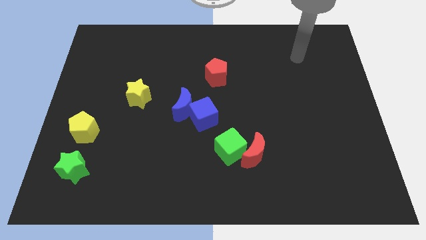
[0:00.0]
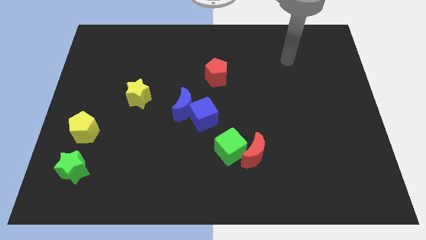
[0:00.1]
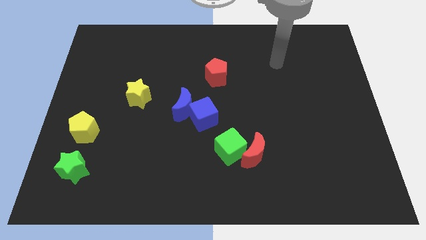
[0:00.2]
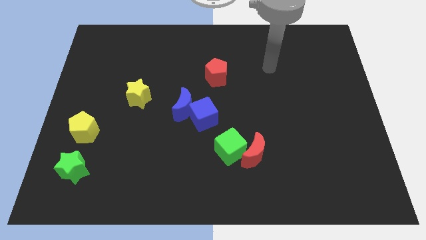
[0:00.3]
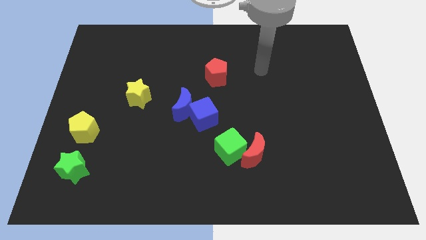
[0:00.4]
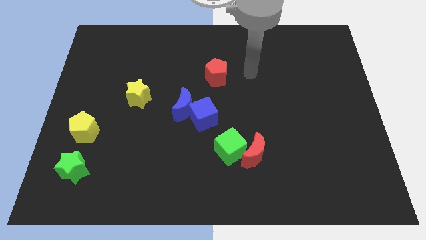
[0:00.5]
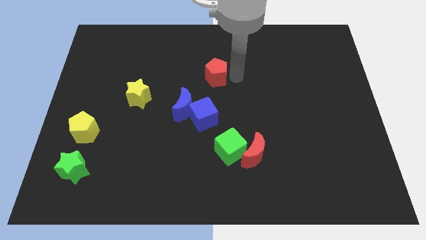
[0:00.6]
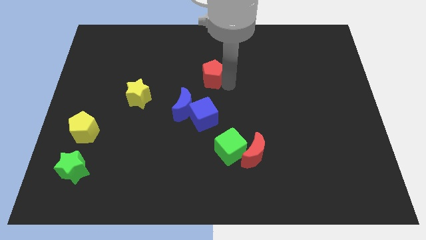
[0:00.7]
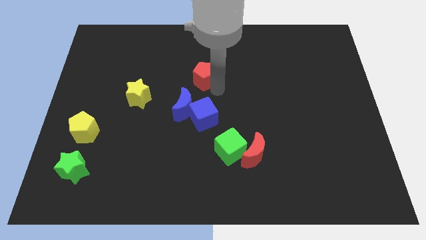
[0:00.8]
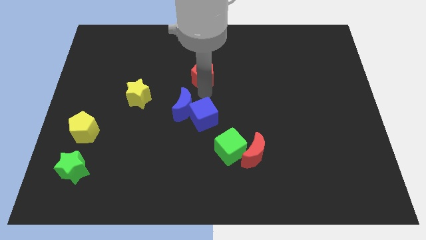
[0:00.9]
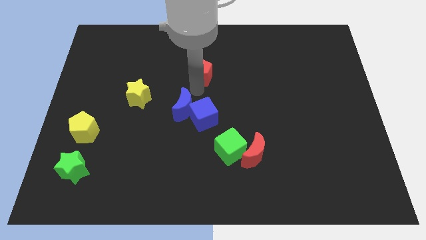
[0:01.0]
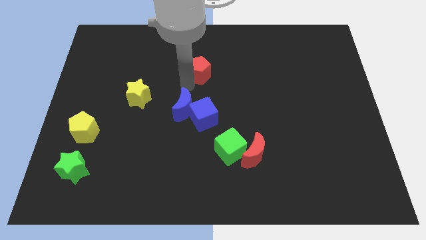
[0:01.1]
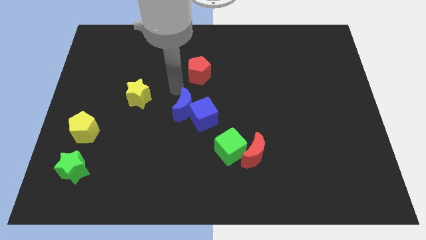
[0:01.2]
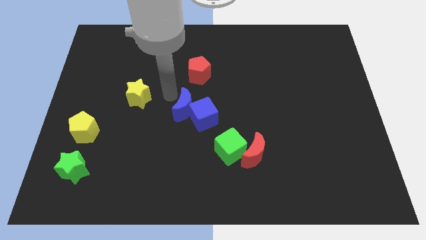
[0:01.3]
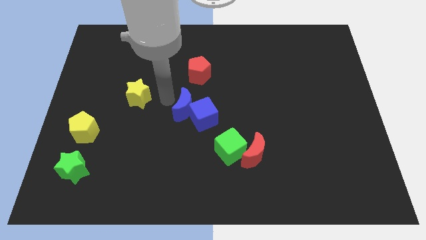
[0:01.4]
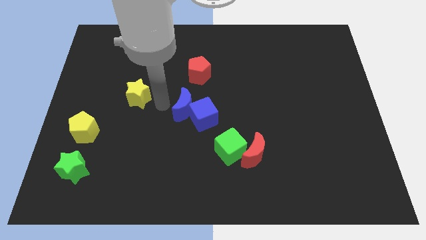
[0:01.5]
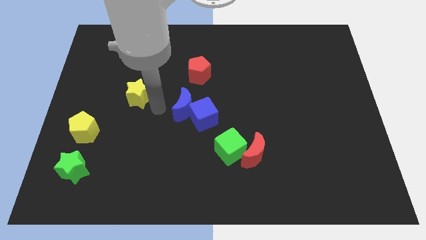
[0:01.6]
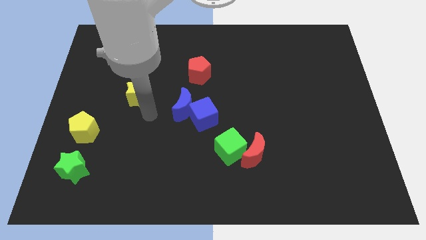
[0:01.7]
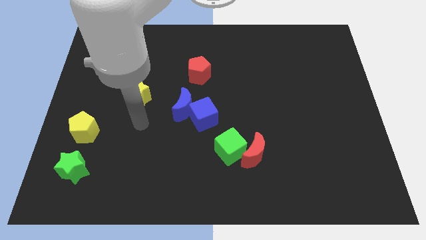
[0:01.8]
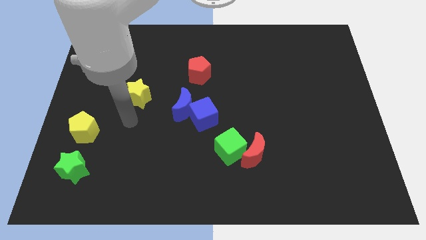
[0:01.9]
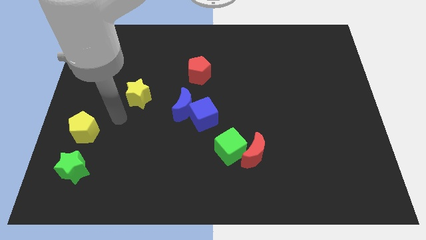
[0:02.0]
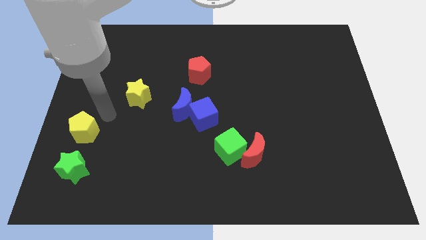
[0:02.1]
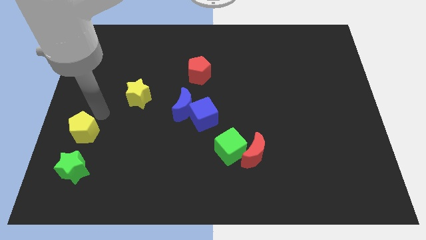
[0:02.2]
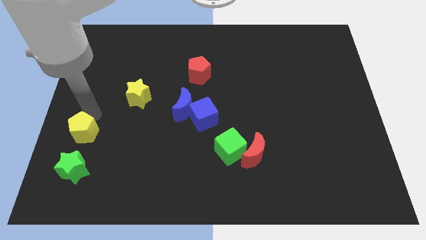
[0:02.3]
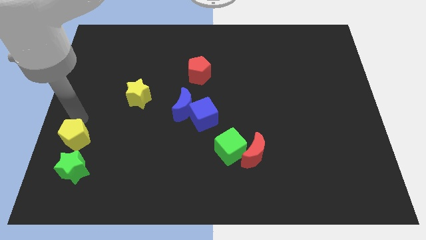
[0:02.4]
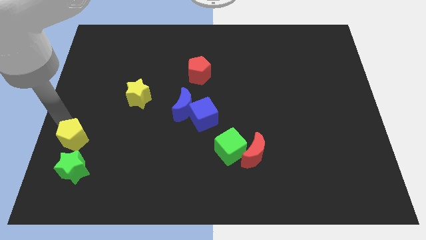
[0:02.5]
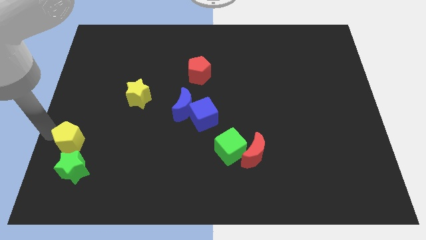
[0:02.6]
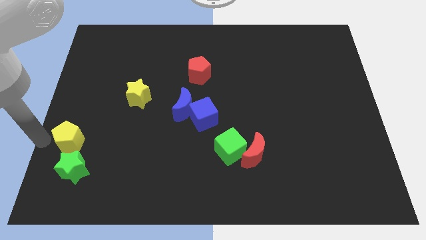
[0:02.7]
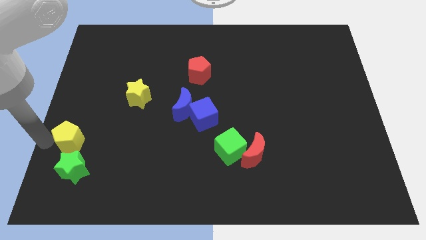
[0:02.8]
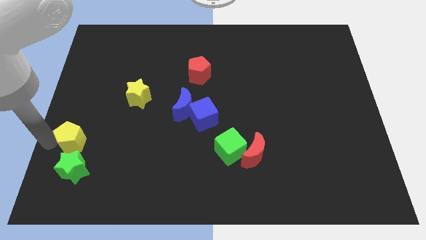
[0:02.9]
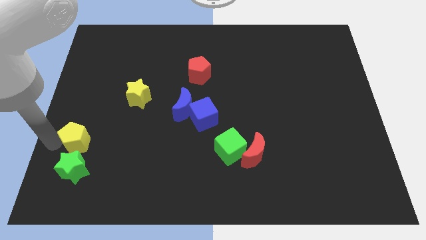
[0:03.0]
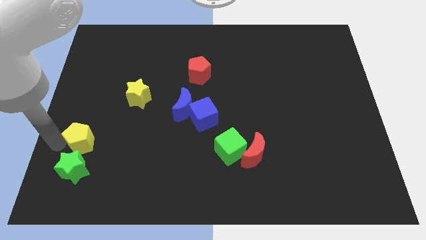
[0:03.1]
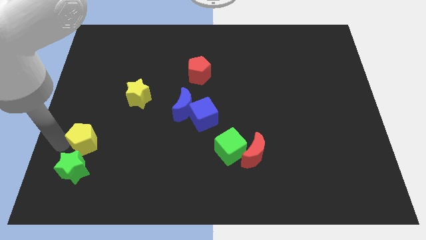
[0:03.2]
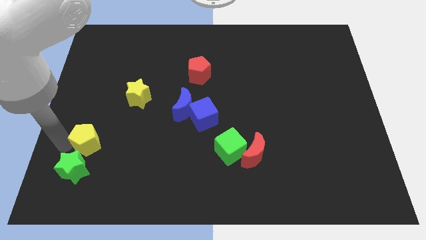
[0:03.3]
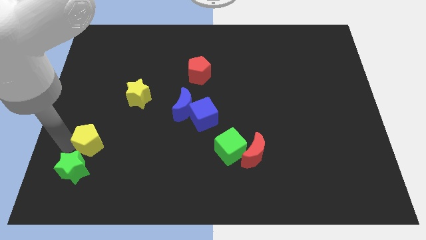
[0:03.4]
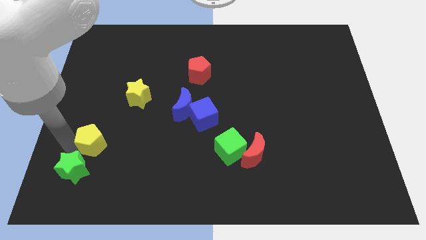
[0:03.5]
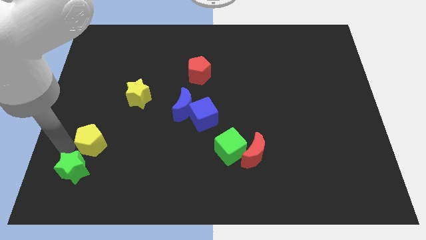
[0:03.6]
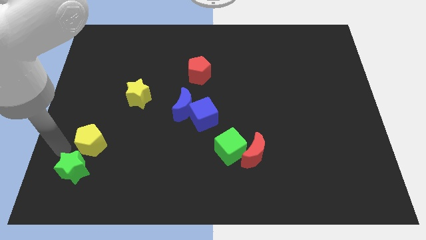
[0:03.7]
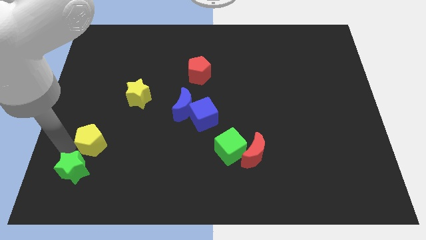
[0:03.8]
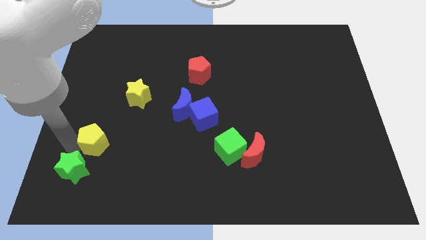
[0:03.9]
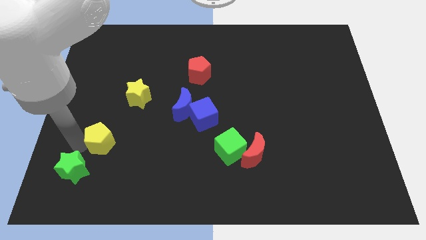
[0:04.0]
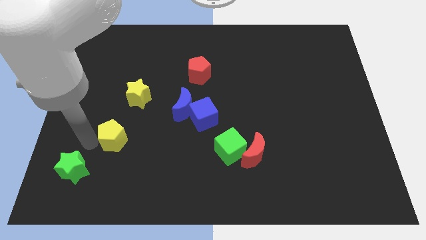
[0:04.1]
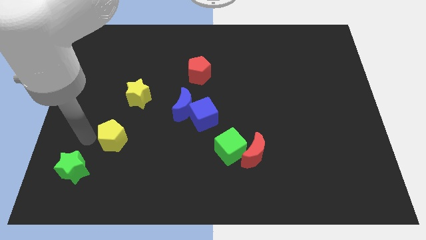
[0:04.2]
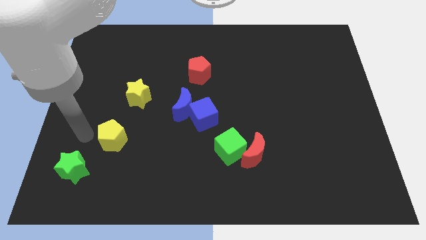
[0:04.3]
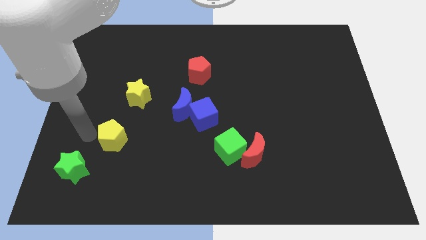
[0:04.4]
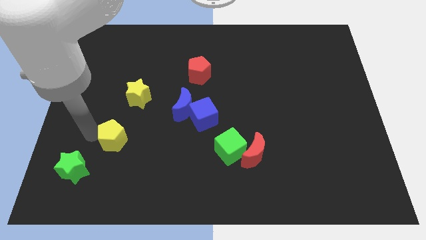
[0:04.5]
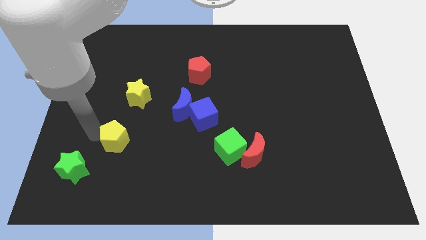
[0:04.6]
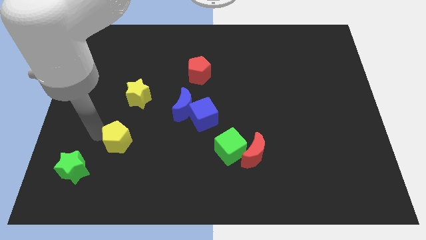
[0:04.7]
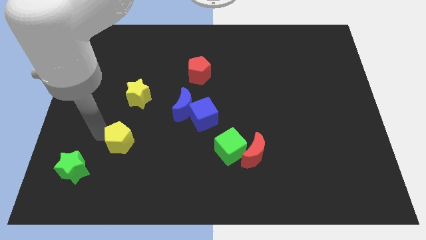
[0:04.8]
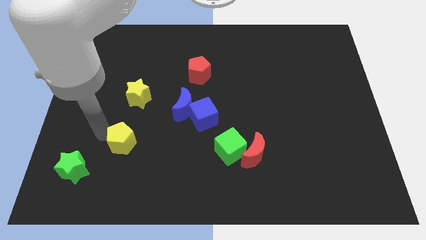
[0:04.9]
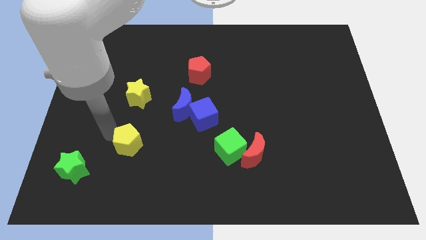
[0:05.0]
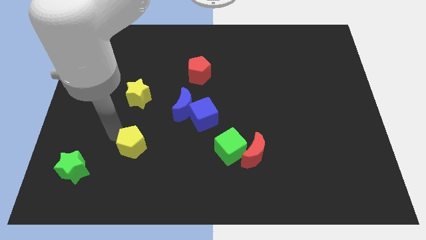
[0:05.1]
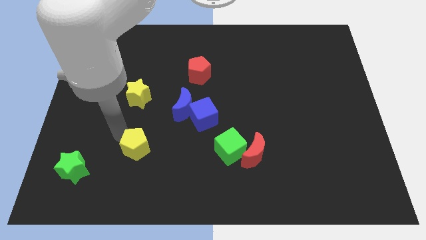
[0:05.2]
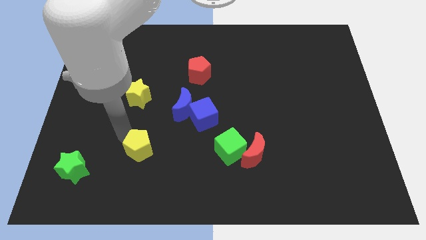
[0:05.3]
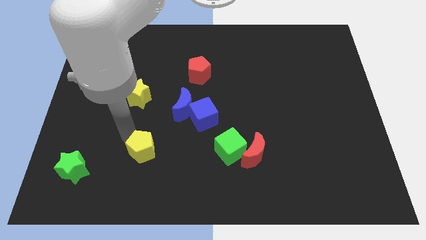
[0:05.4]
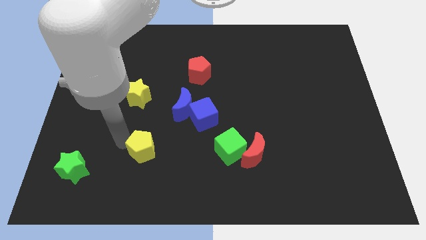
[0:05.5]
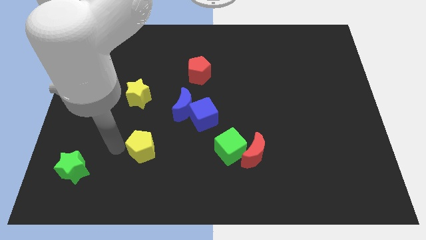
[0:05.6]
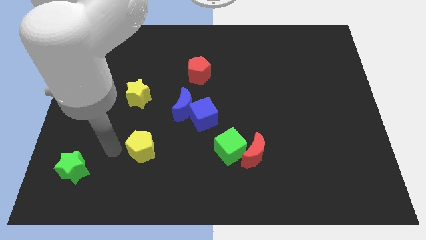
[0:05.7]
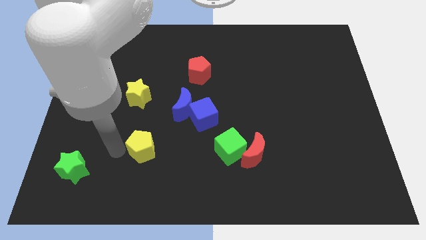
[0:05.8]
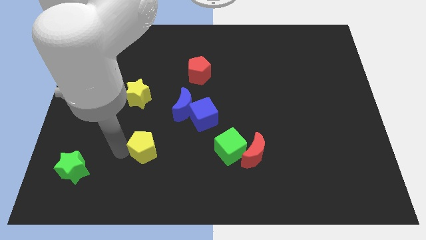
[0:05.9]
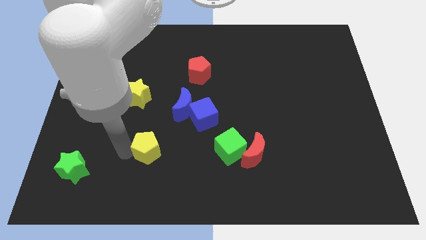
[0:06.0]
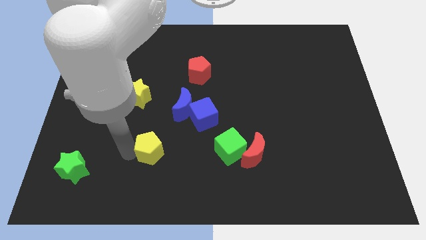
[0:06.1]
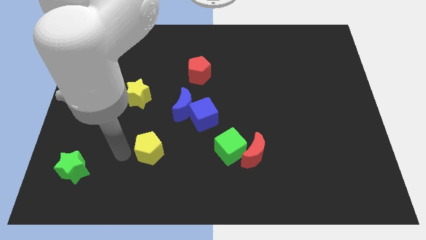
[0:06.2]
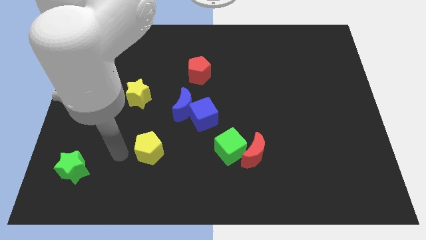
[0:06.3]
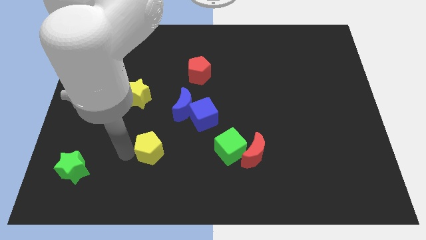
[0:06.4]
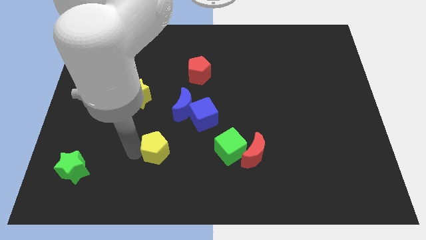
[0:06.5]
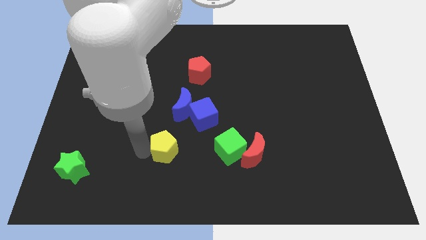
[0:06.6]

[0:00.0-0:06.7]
move the yellow pentagon to the bottom side of the blue moon

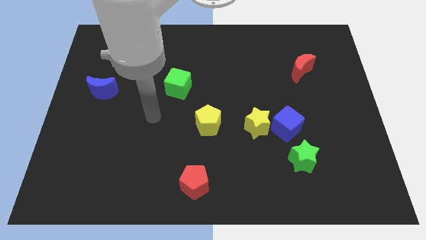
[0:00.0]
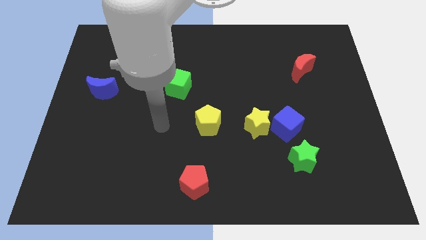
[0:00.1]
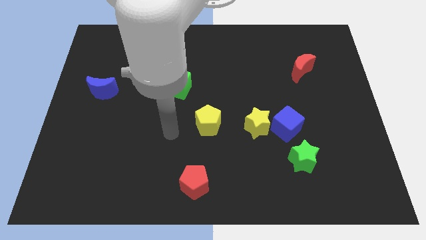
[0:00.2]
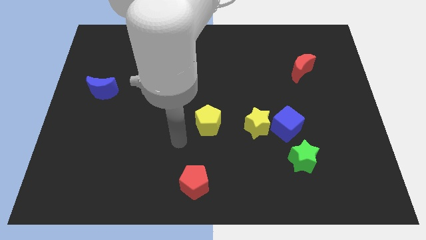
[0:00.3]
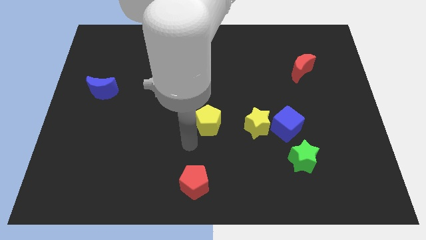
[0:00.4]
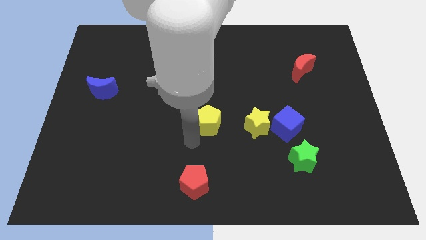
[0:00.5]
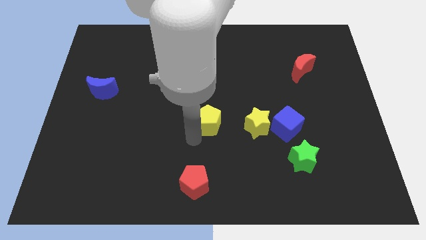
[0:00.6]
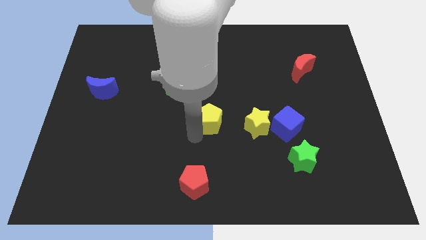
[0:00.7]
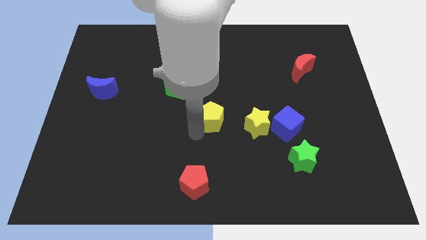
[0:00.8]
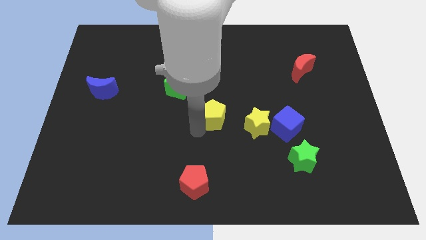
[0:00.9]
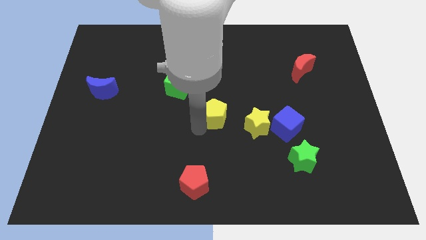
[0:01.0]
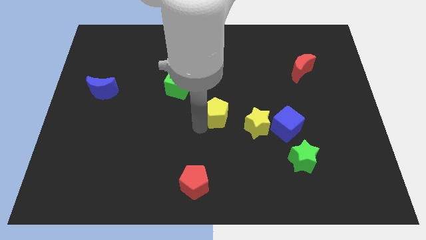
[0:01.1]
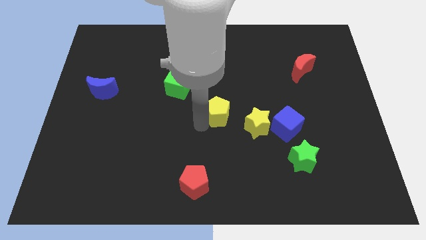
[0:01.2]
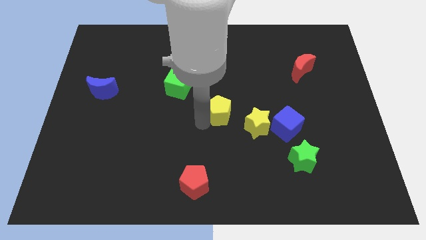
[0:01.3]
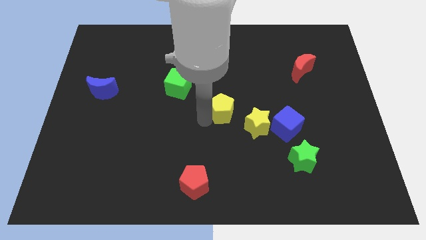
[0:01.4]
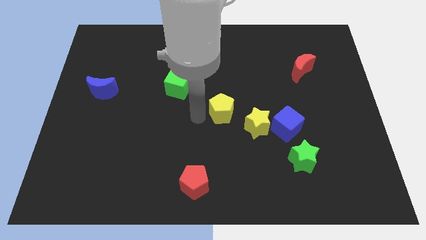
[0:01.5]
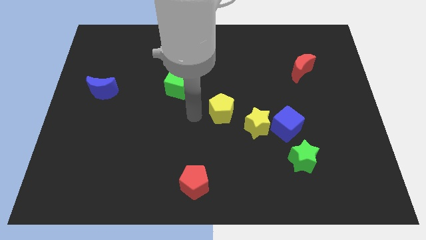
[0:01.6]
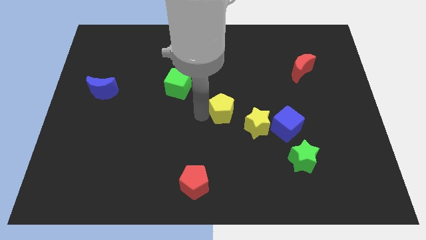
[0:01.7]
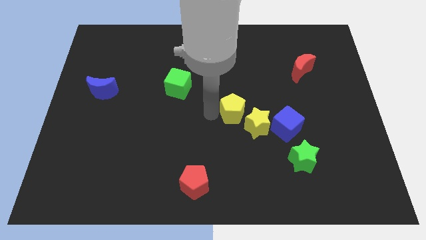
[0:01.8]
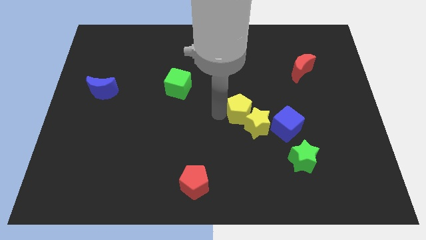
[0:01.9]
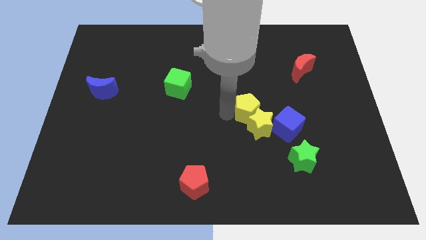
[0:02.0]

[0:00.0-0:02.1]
push the yellow pentagon to the top left side of the blue cube
